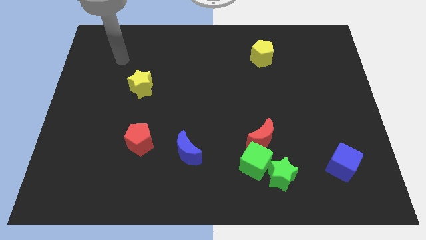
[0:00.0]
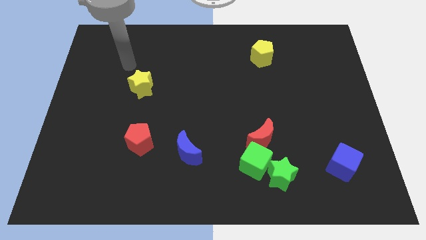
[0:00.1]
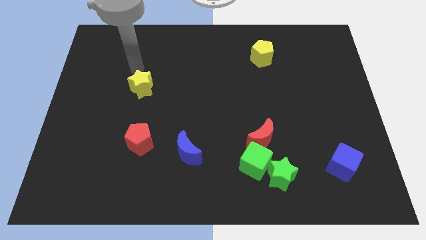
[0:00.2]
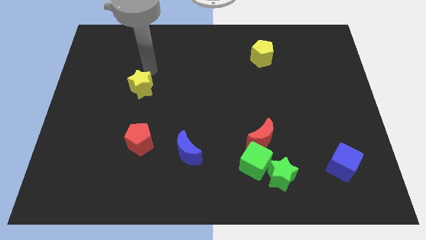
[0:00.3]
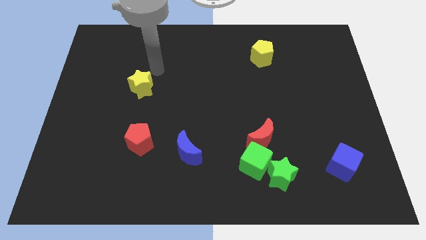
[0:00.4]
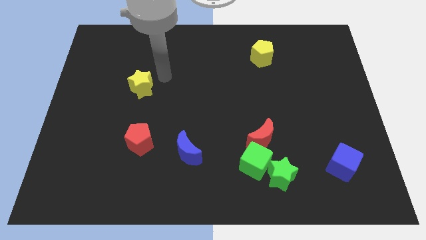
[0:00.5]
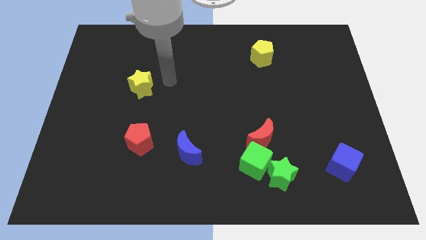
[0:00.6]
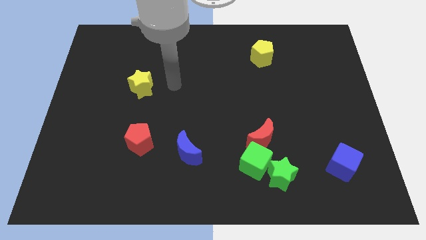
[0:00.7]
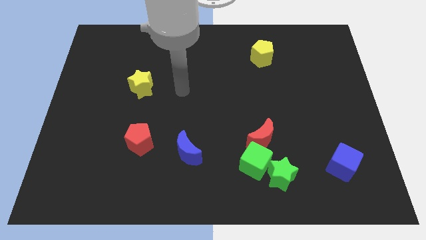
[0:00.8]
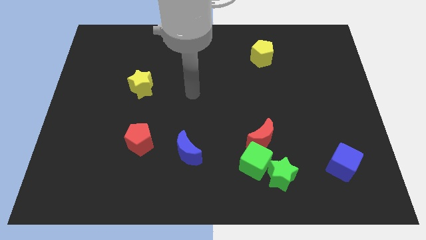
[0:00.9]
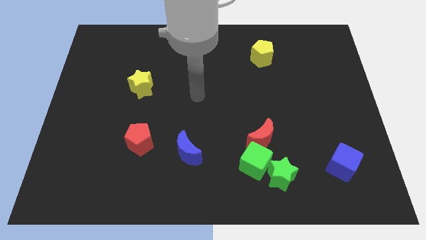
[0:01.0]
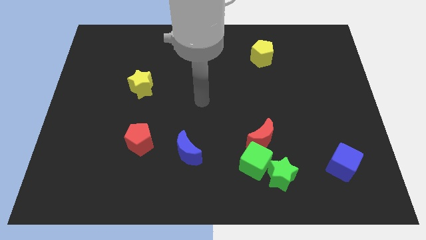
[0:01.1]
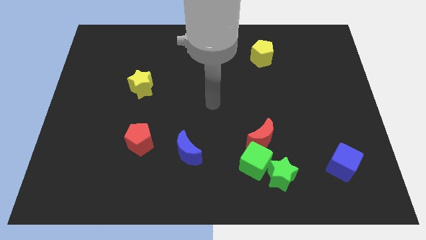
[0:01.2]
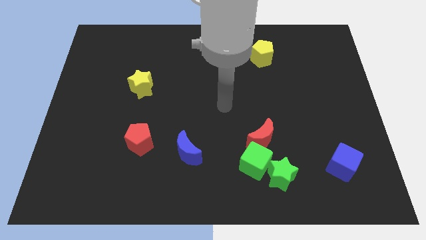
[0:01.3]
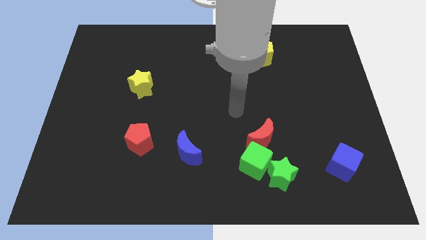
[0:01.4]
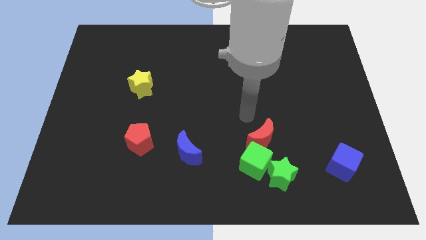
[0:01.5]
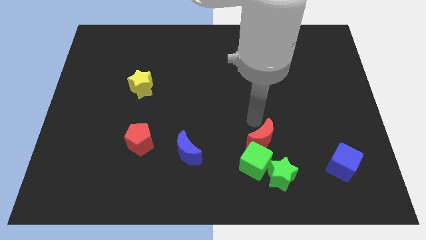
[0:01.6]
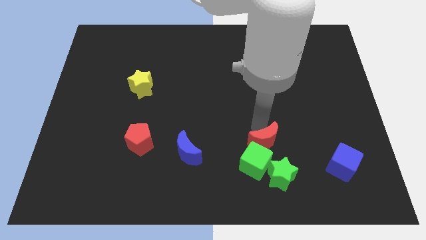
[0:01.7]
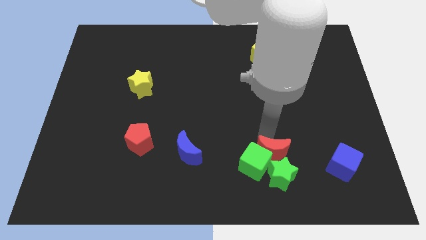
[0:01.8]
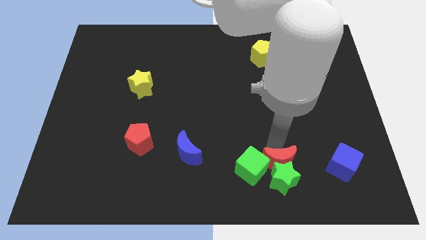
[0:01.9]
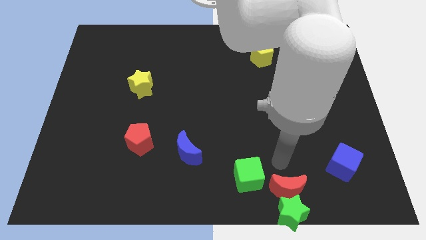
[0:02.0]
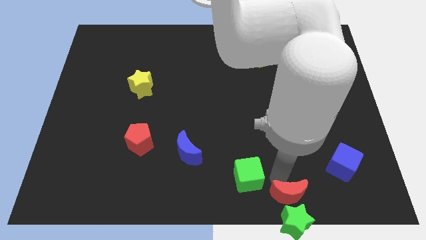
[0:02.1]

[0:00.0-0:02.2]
move the green cube away from the green star and red moon

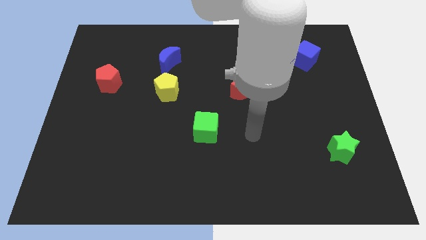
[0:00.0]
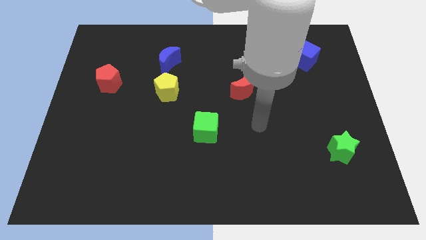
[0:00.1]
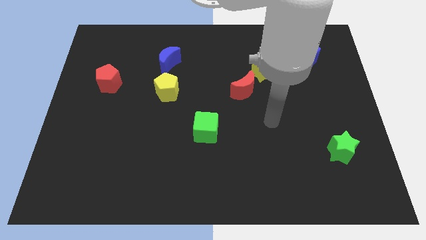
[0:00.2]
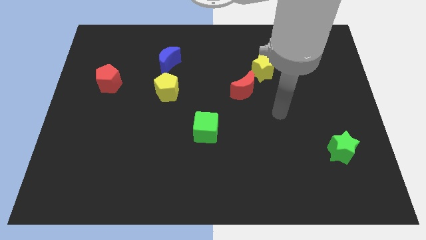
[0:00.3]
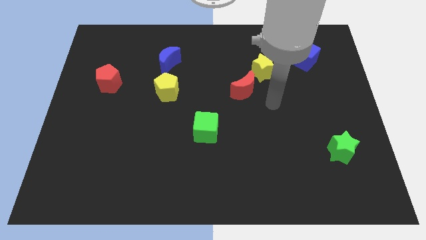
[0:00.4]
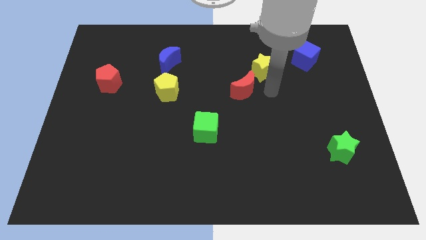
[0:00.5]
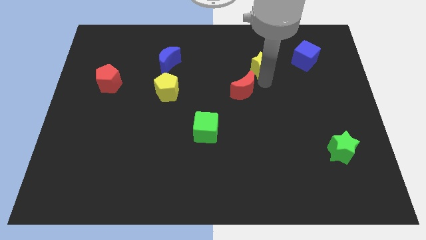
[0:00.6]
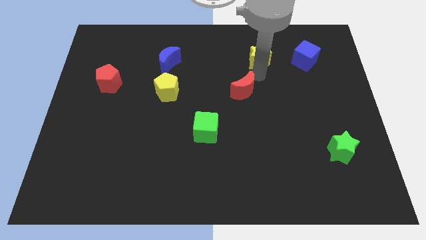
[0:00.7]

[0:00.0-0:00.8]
move the red moon away from the yellow star

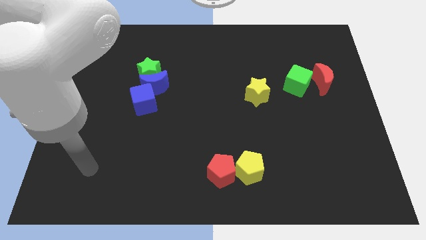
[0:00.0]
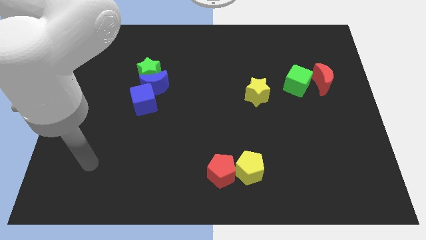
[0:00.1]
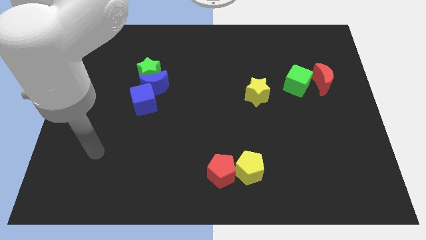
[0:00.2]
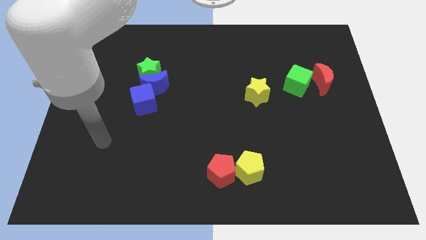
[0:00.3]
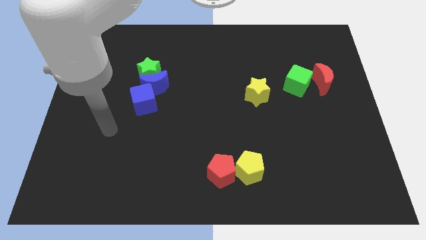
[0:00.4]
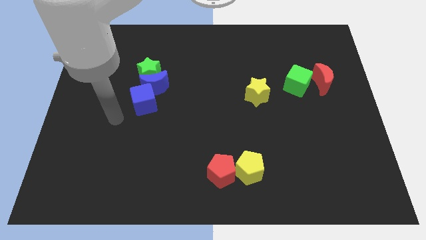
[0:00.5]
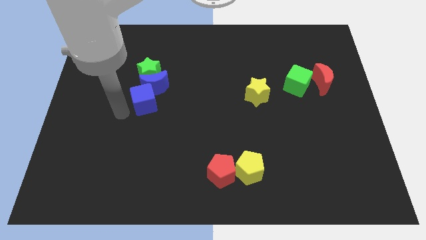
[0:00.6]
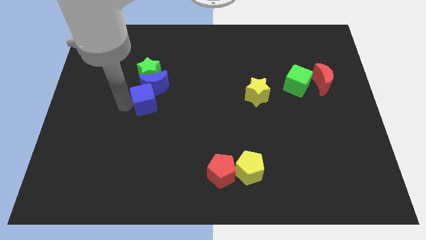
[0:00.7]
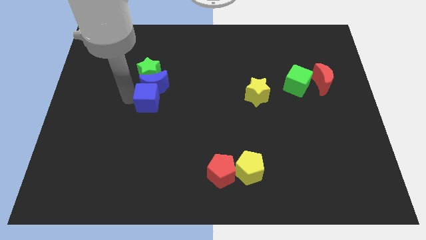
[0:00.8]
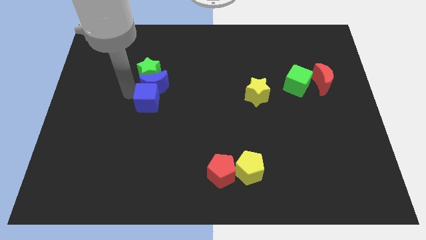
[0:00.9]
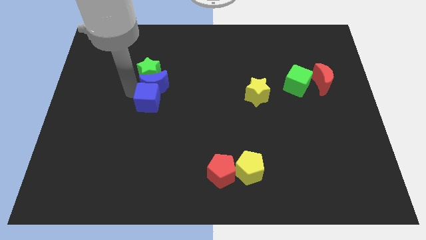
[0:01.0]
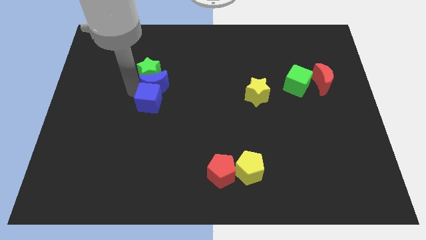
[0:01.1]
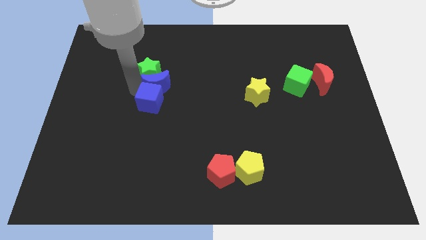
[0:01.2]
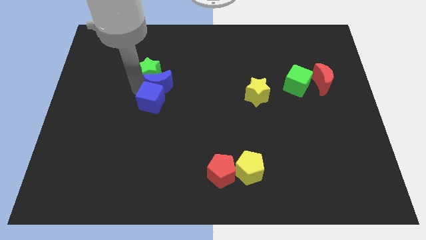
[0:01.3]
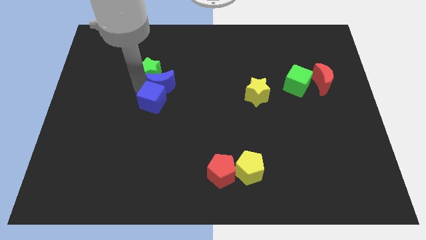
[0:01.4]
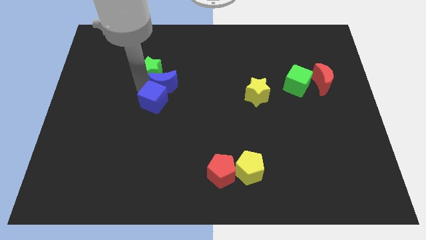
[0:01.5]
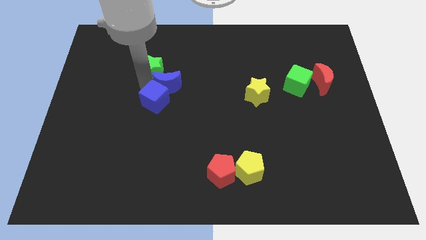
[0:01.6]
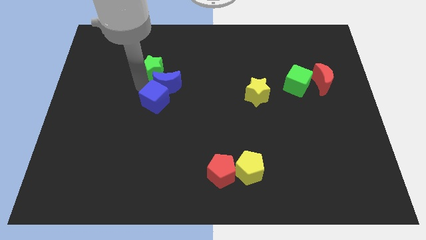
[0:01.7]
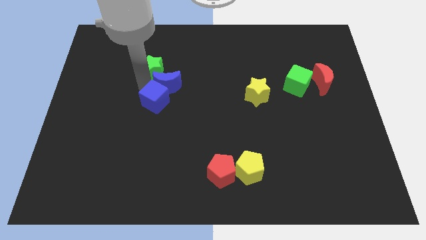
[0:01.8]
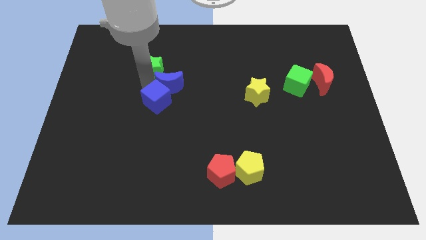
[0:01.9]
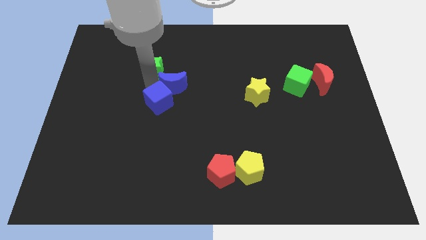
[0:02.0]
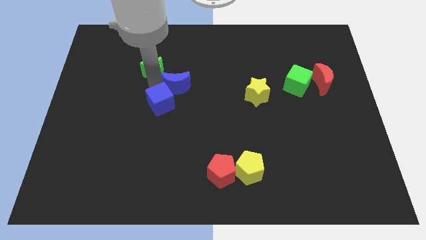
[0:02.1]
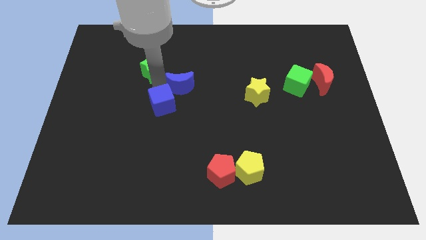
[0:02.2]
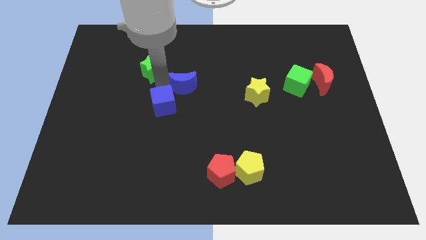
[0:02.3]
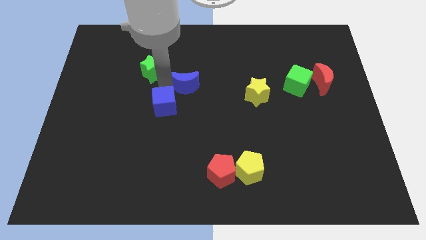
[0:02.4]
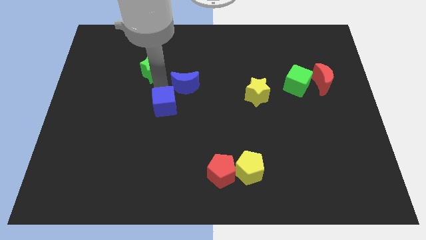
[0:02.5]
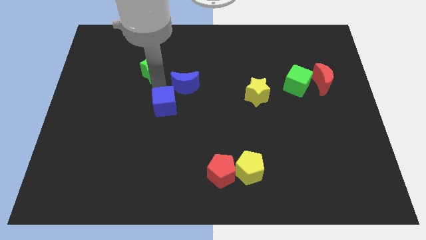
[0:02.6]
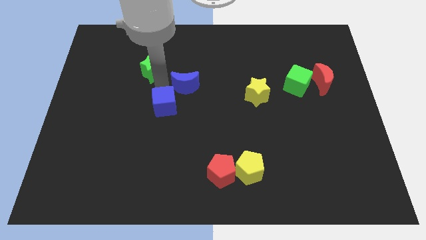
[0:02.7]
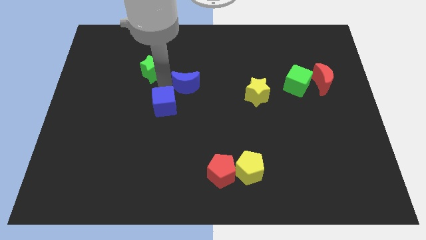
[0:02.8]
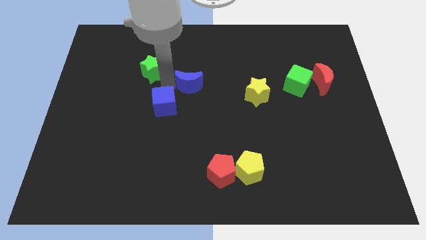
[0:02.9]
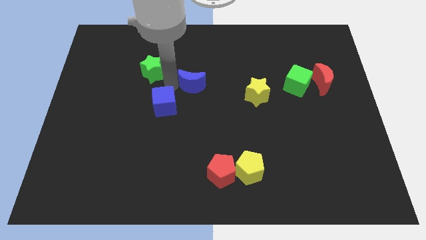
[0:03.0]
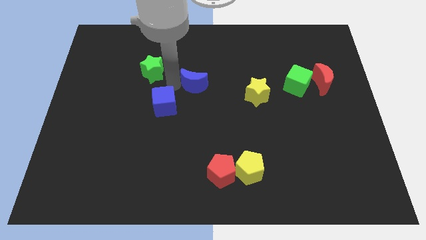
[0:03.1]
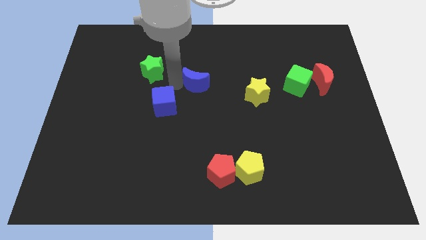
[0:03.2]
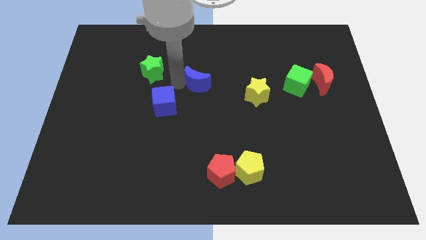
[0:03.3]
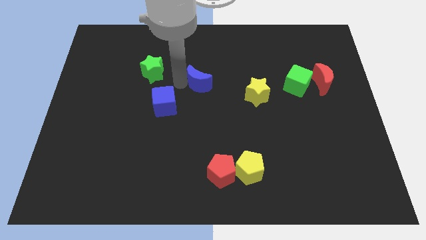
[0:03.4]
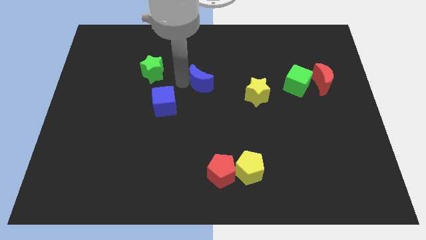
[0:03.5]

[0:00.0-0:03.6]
move the blue moon away from the green star and blue cube

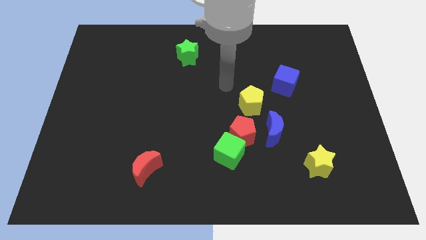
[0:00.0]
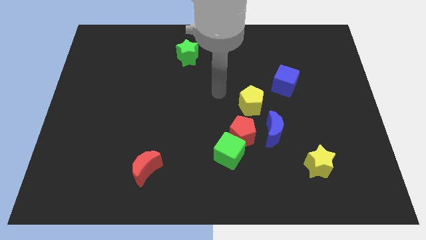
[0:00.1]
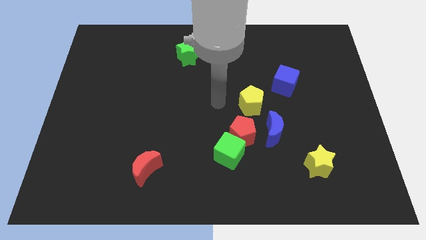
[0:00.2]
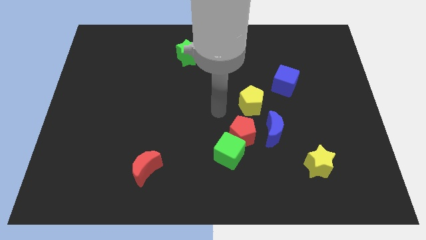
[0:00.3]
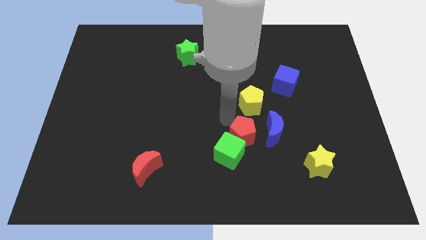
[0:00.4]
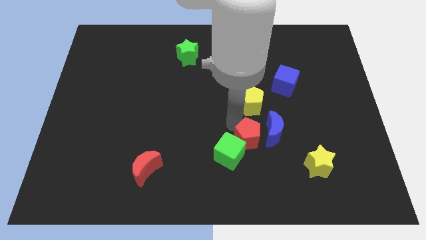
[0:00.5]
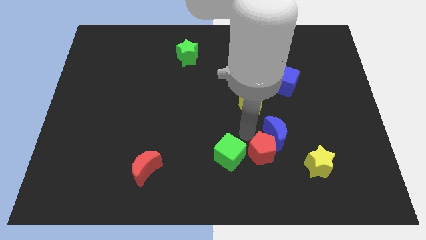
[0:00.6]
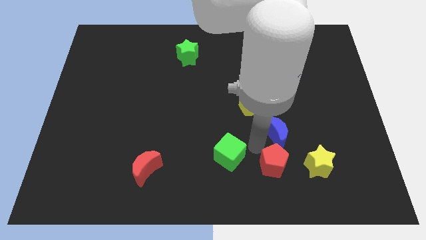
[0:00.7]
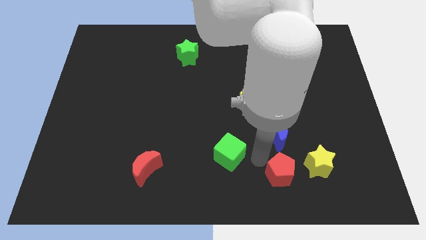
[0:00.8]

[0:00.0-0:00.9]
move the green cube away from the red pentagon

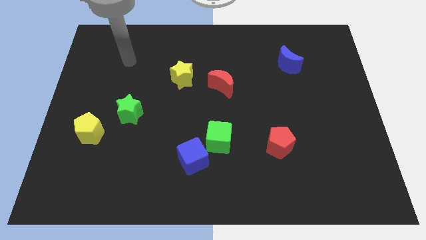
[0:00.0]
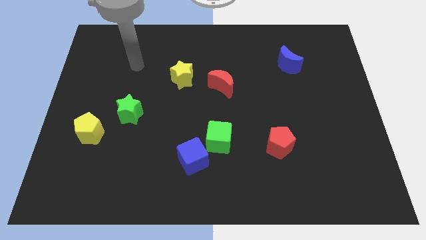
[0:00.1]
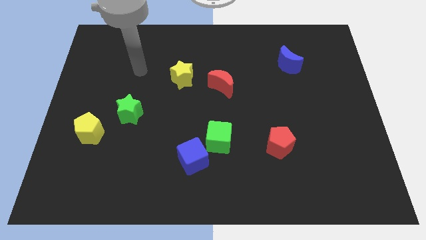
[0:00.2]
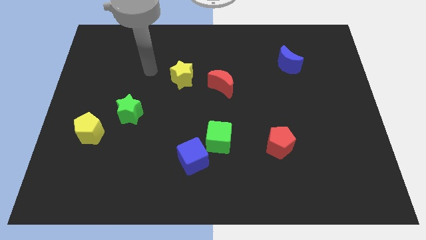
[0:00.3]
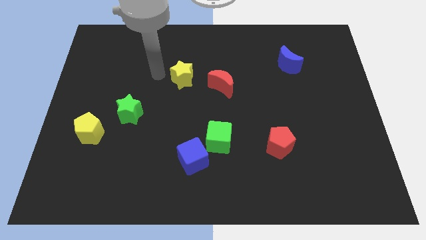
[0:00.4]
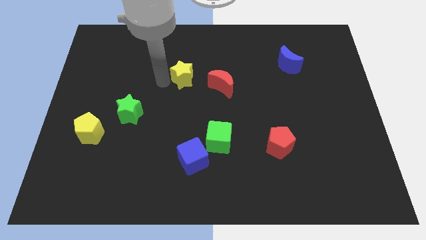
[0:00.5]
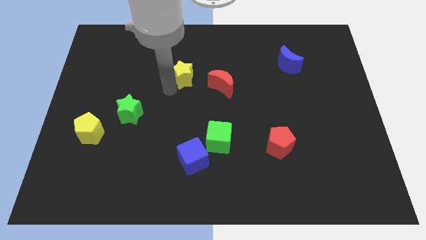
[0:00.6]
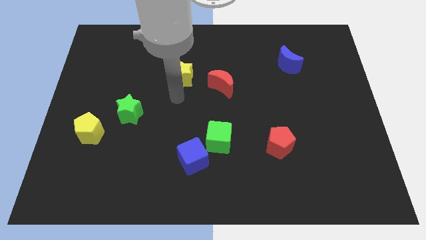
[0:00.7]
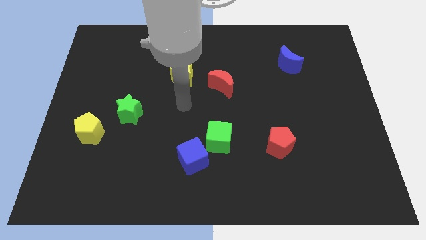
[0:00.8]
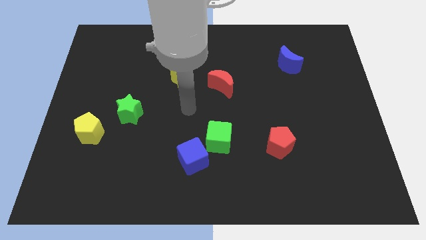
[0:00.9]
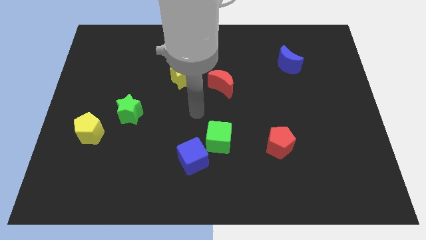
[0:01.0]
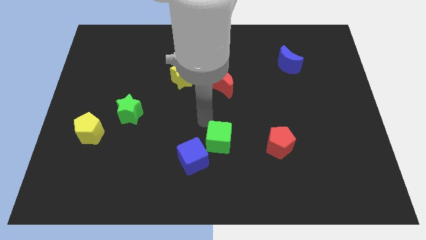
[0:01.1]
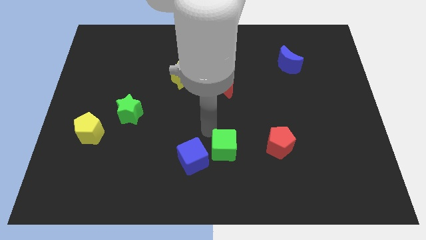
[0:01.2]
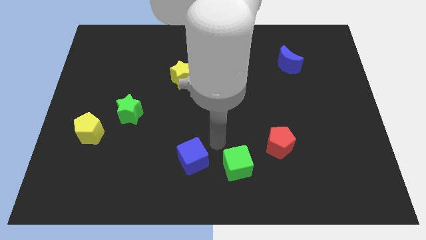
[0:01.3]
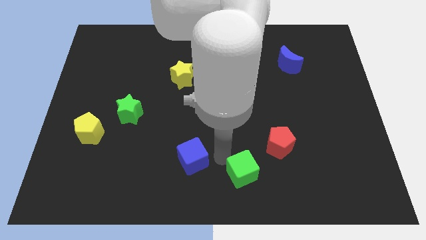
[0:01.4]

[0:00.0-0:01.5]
move the blue cube away from the green cube

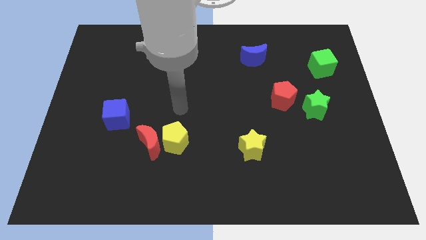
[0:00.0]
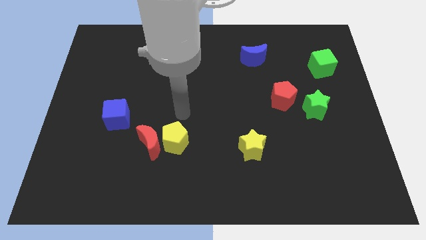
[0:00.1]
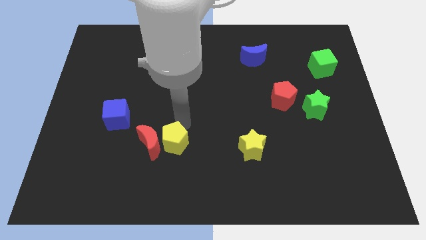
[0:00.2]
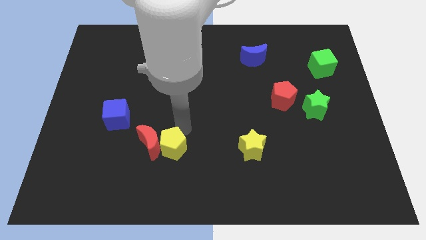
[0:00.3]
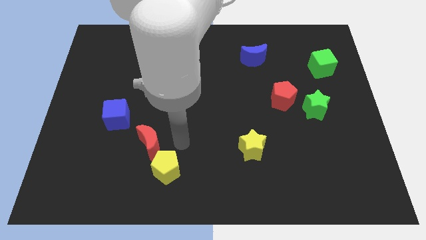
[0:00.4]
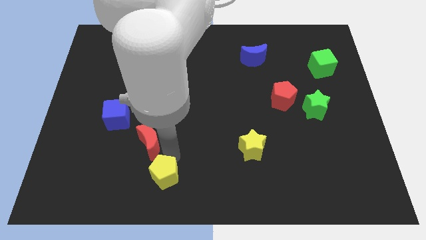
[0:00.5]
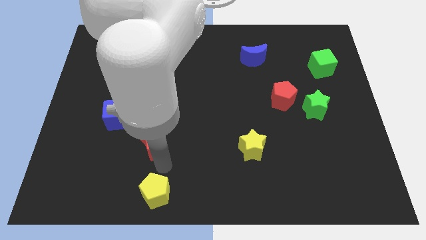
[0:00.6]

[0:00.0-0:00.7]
separate the red moon from the yellow pentagon
